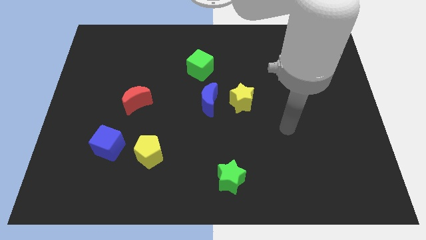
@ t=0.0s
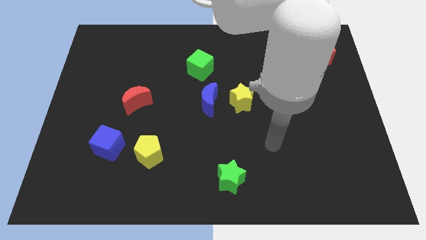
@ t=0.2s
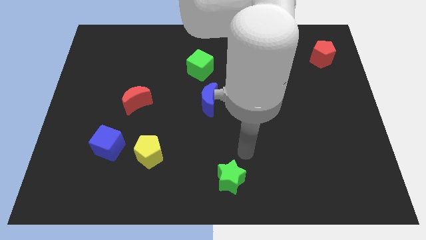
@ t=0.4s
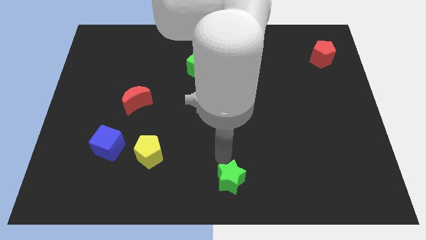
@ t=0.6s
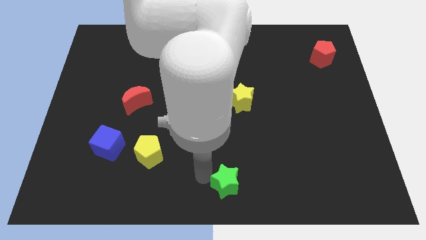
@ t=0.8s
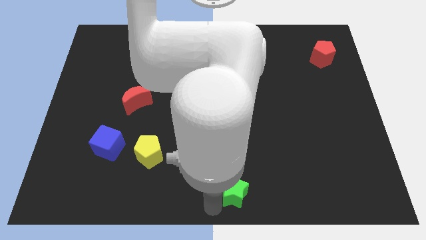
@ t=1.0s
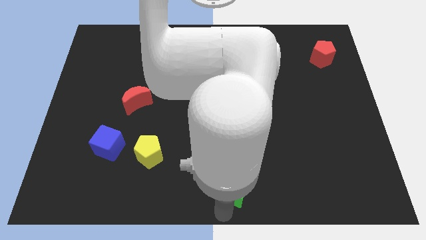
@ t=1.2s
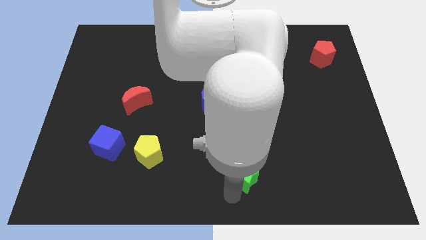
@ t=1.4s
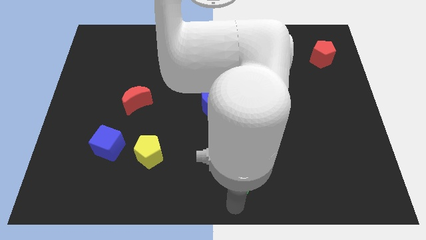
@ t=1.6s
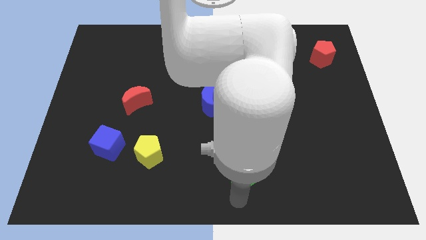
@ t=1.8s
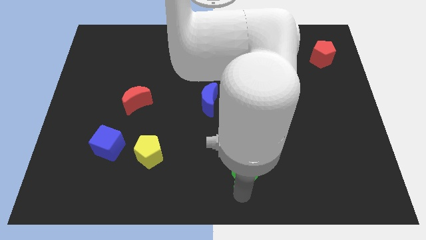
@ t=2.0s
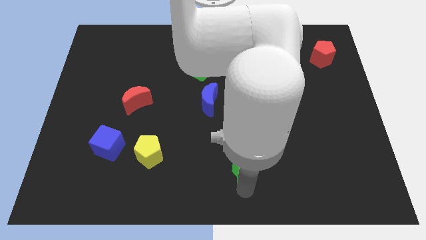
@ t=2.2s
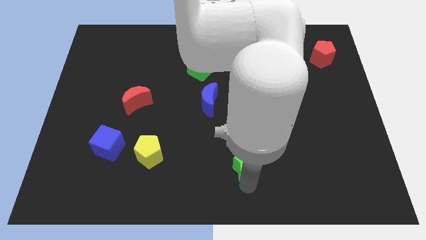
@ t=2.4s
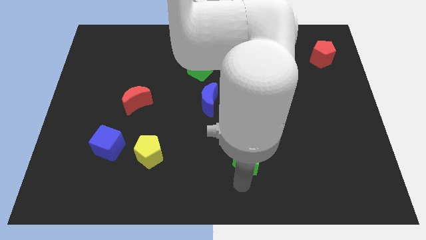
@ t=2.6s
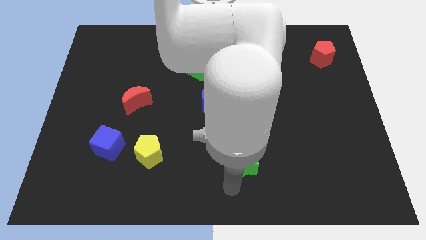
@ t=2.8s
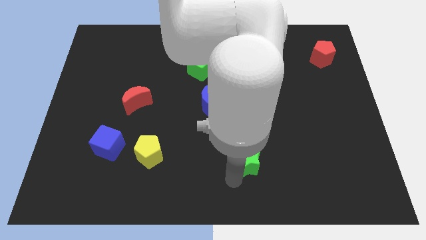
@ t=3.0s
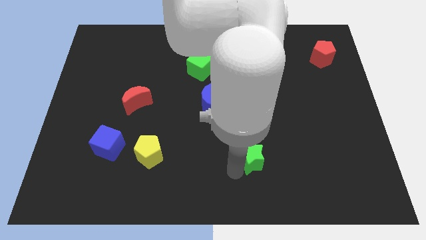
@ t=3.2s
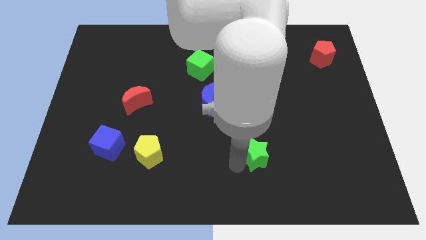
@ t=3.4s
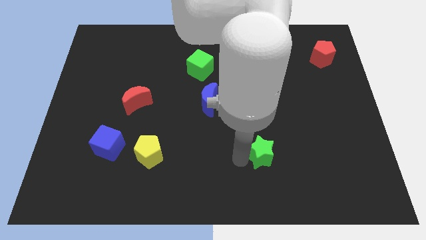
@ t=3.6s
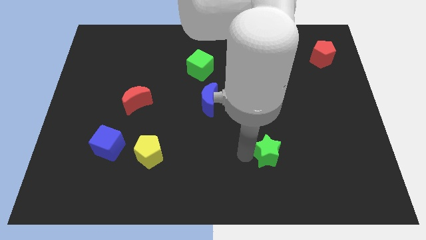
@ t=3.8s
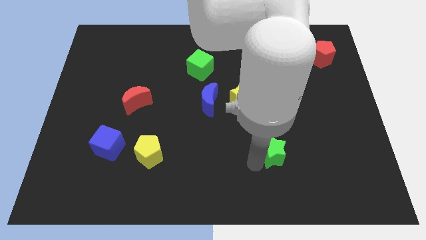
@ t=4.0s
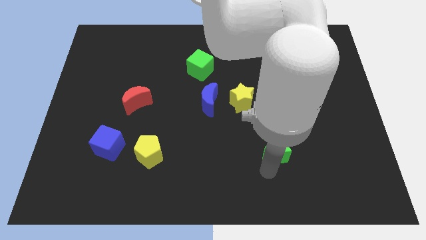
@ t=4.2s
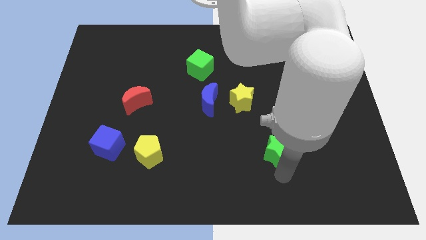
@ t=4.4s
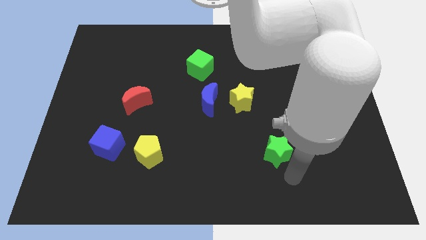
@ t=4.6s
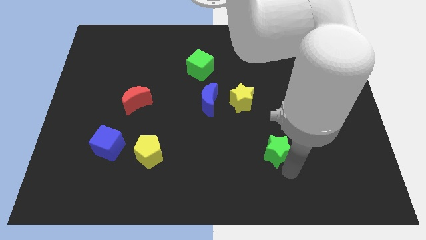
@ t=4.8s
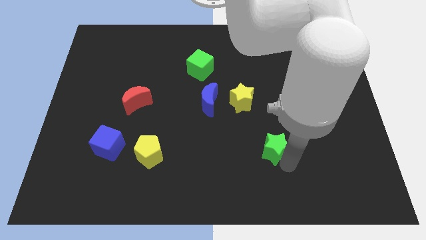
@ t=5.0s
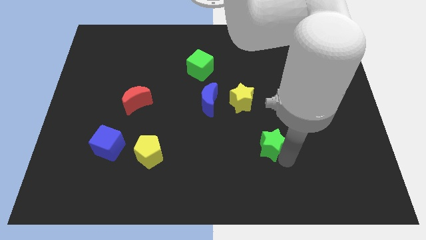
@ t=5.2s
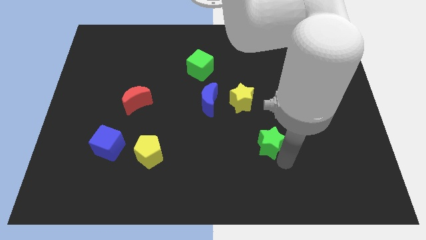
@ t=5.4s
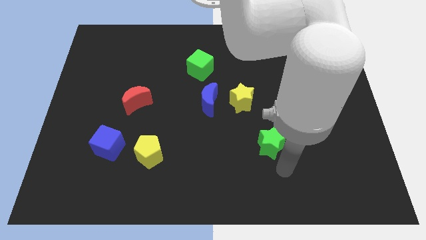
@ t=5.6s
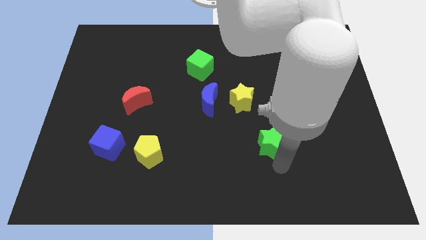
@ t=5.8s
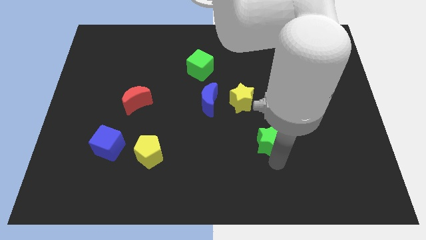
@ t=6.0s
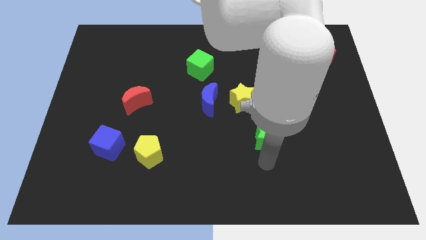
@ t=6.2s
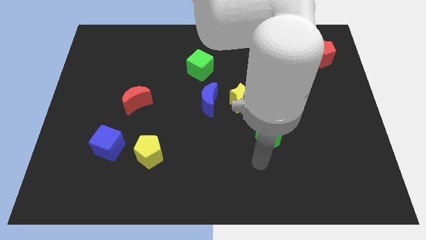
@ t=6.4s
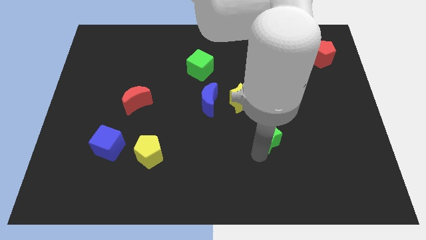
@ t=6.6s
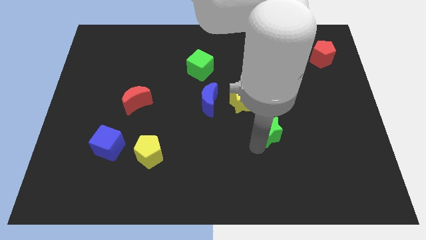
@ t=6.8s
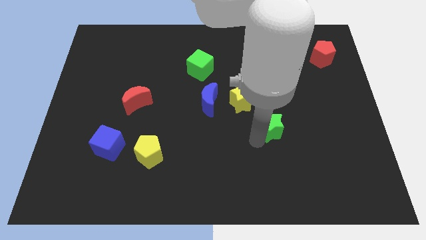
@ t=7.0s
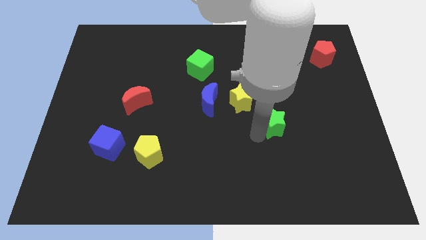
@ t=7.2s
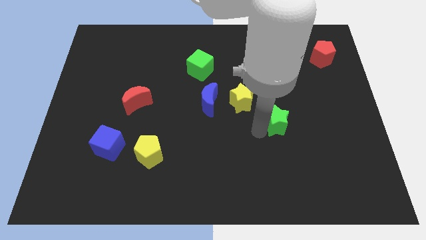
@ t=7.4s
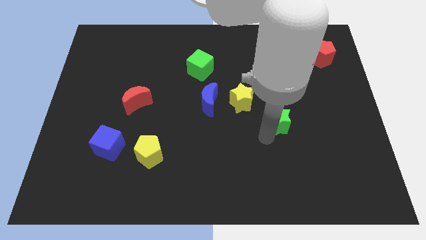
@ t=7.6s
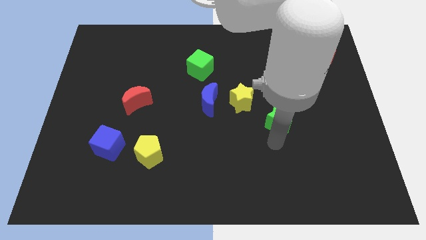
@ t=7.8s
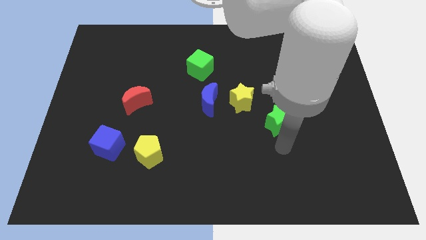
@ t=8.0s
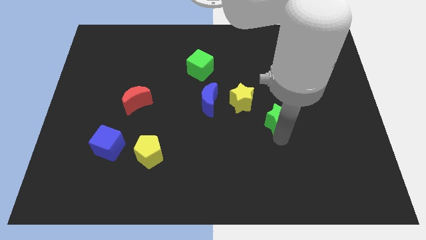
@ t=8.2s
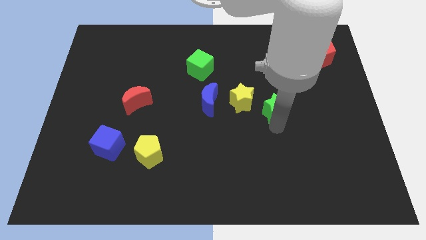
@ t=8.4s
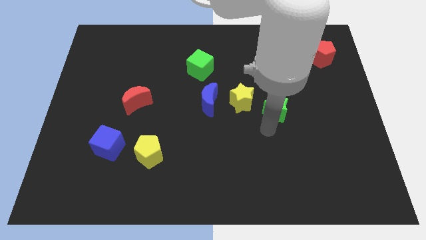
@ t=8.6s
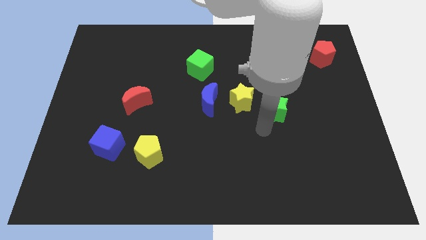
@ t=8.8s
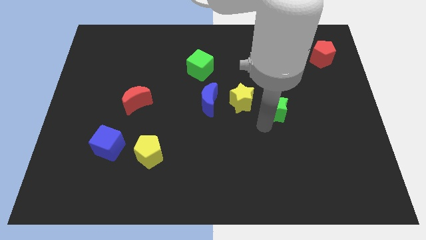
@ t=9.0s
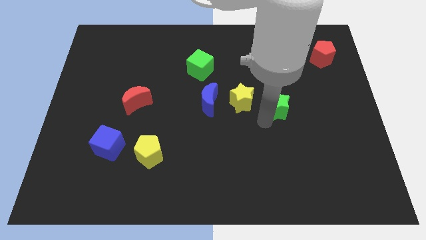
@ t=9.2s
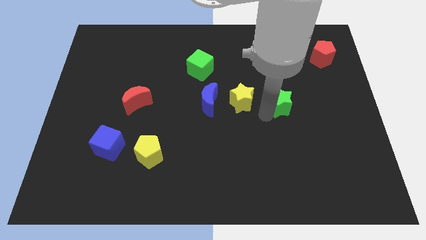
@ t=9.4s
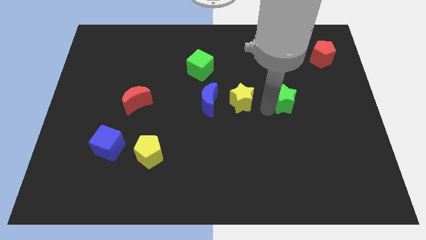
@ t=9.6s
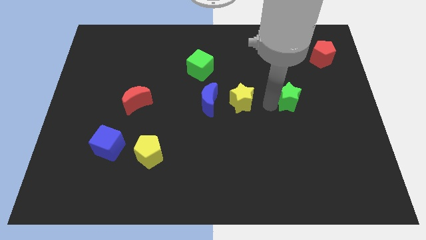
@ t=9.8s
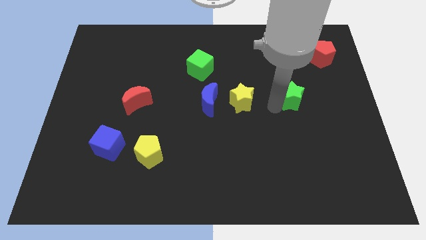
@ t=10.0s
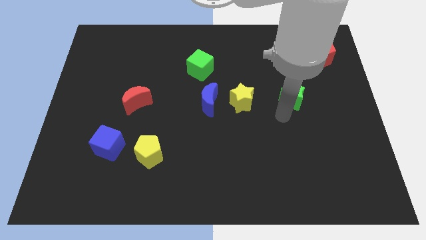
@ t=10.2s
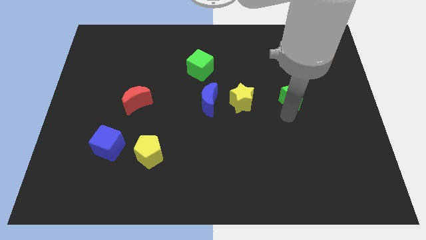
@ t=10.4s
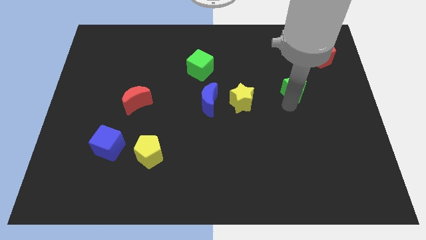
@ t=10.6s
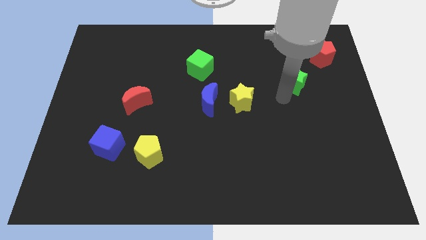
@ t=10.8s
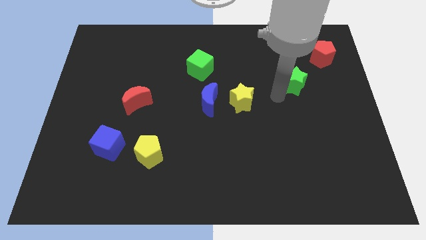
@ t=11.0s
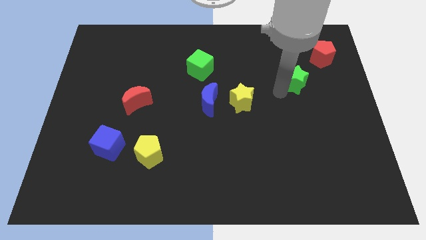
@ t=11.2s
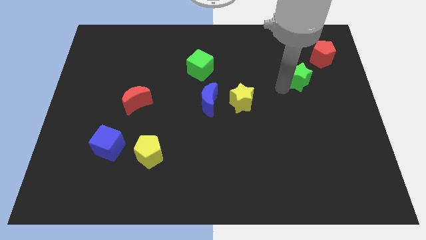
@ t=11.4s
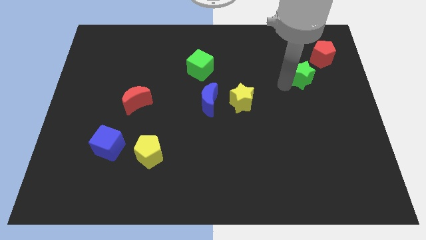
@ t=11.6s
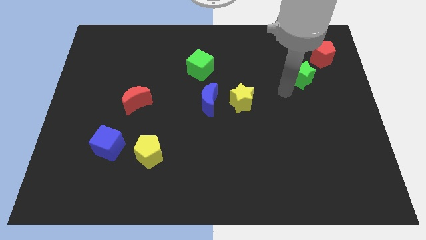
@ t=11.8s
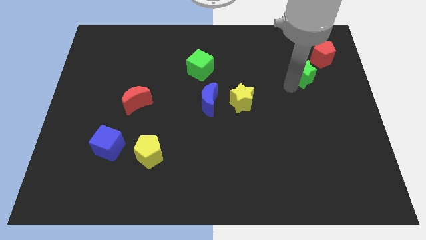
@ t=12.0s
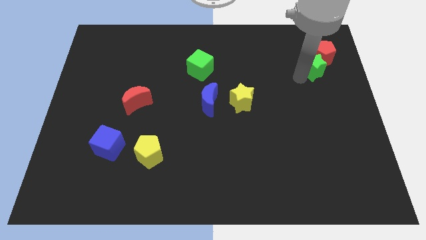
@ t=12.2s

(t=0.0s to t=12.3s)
move the green star to the red pentagon

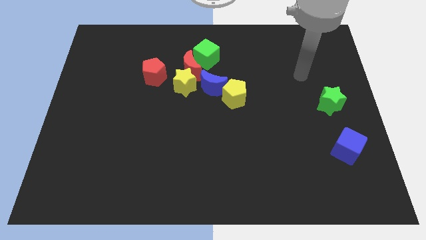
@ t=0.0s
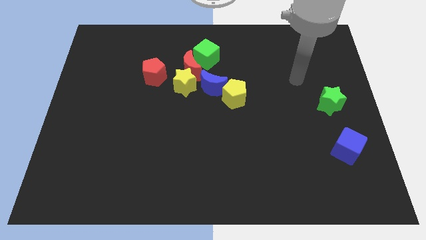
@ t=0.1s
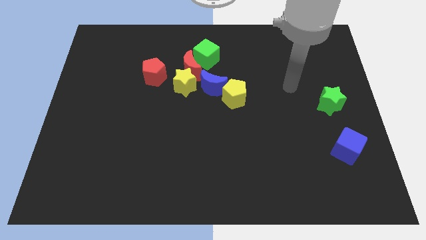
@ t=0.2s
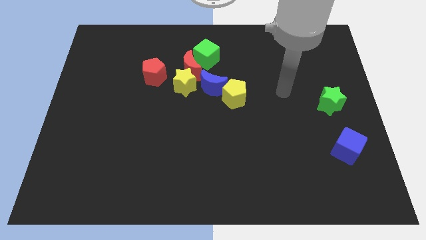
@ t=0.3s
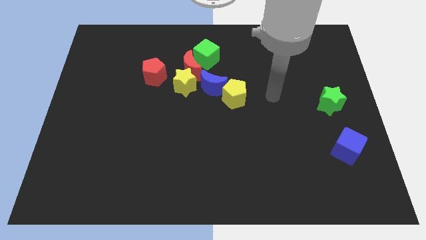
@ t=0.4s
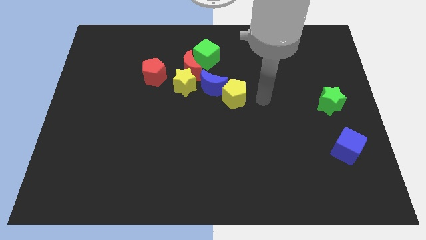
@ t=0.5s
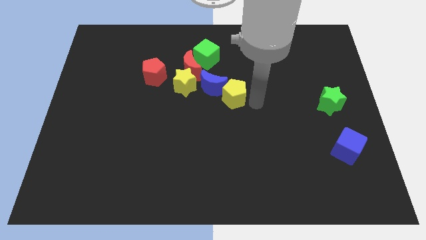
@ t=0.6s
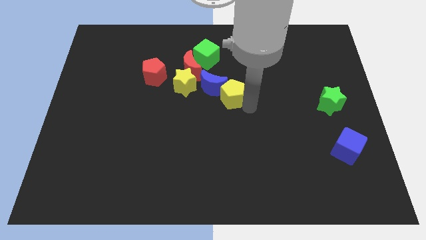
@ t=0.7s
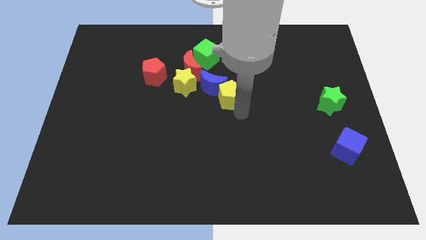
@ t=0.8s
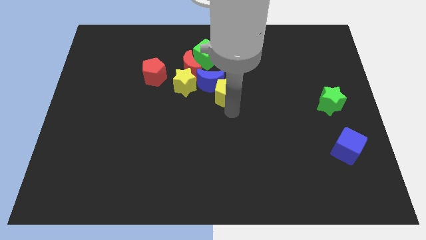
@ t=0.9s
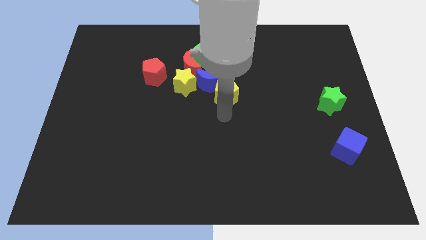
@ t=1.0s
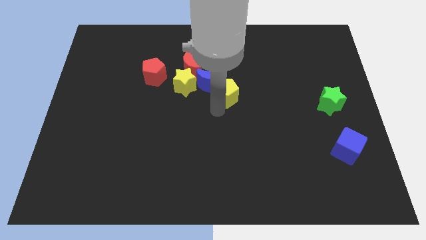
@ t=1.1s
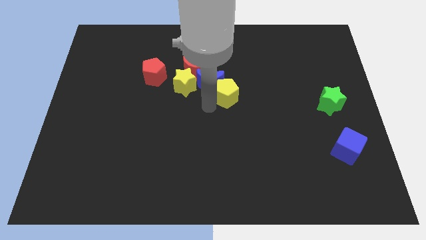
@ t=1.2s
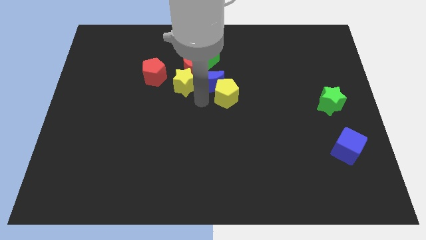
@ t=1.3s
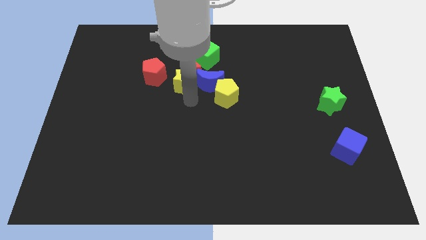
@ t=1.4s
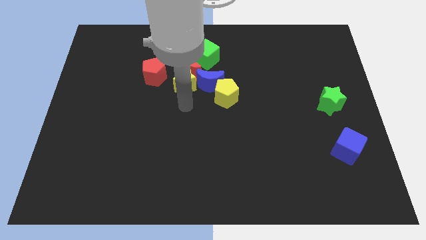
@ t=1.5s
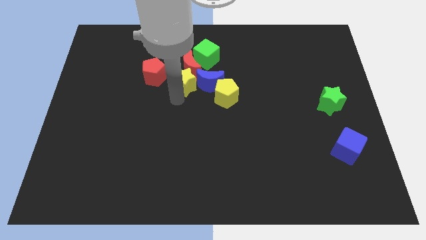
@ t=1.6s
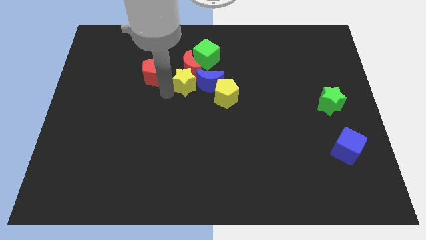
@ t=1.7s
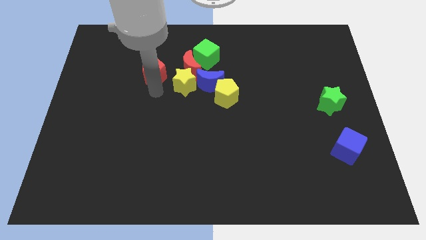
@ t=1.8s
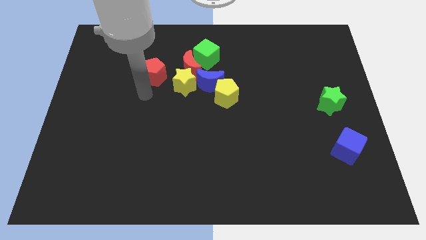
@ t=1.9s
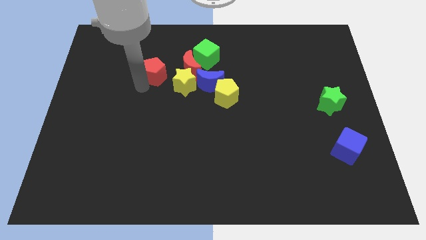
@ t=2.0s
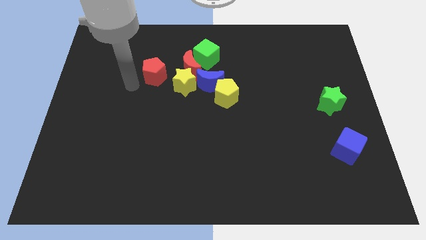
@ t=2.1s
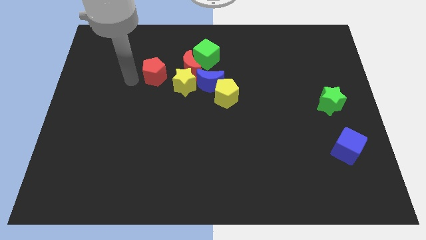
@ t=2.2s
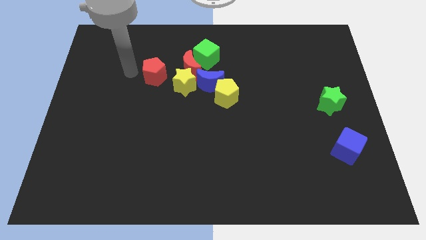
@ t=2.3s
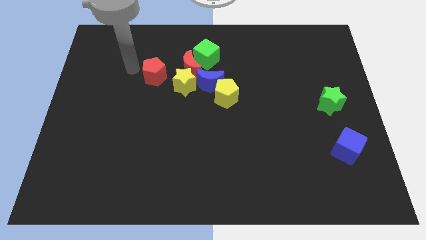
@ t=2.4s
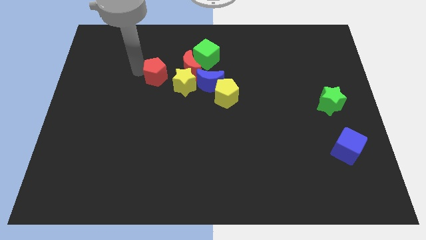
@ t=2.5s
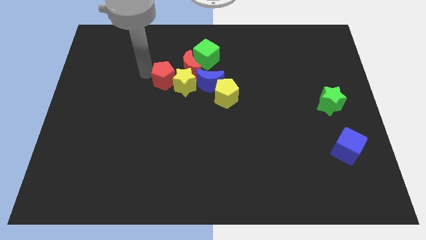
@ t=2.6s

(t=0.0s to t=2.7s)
push the red pentagon to the yellow star
